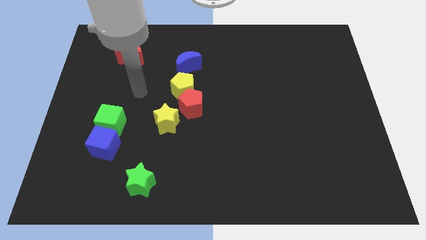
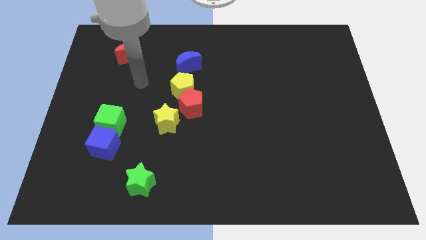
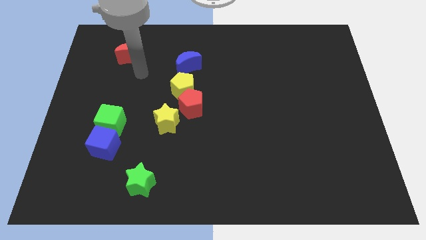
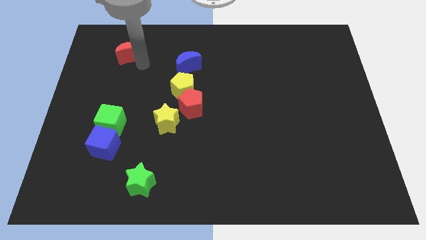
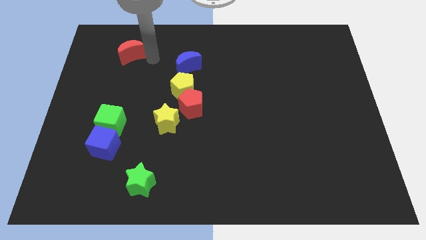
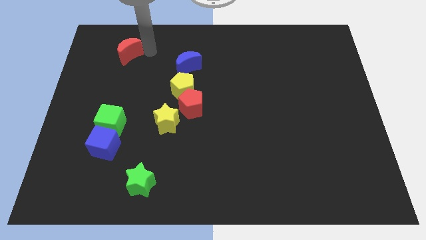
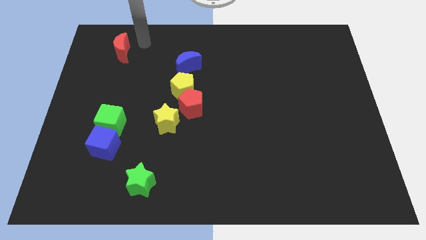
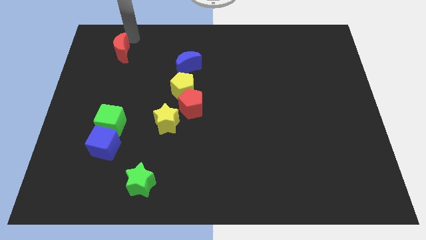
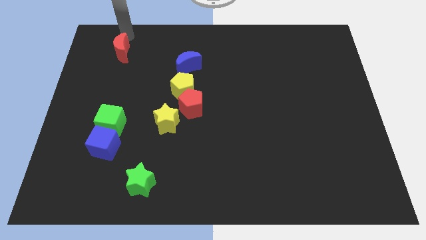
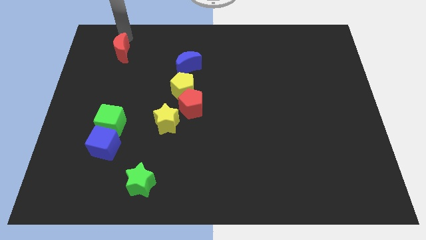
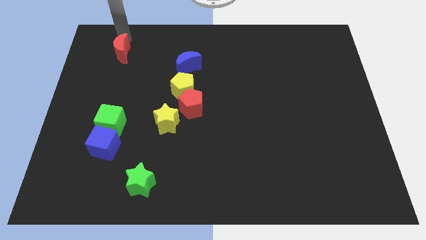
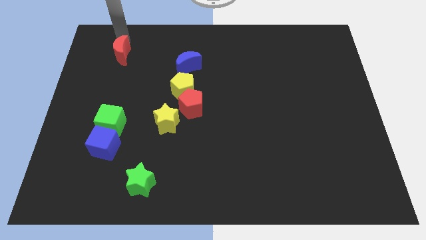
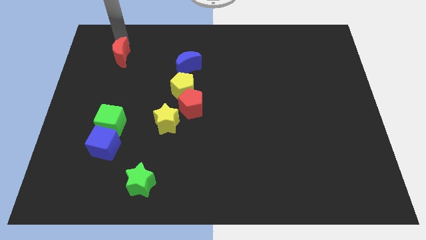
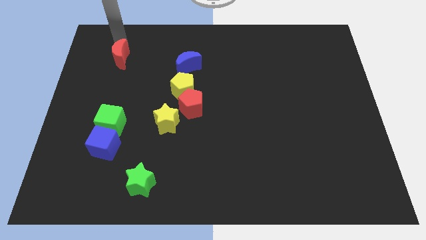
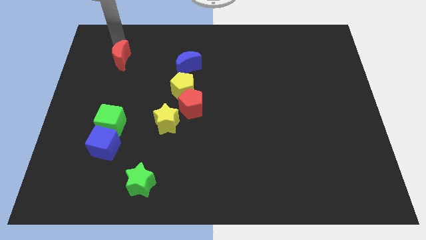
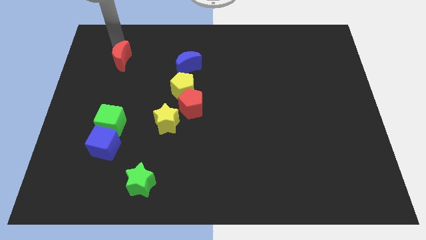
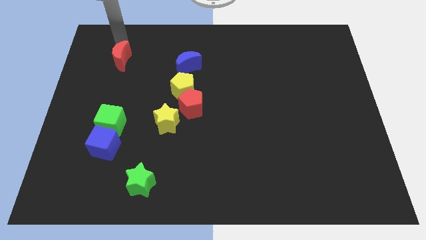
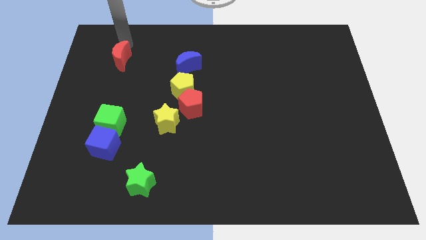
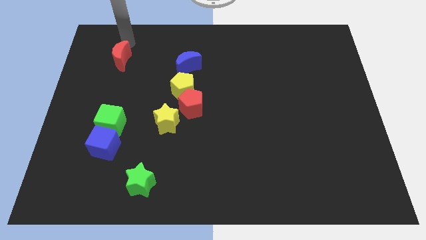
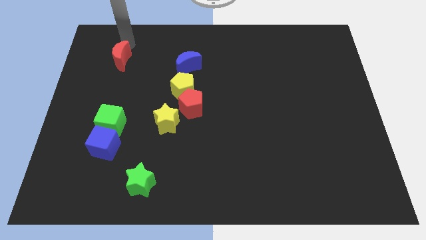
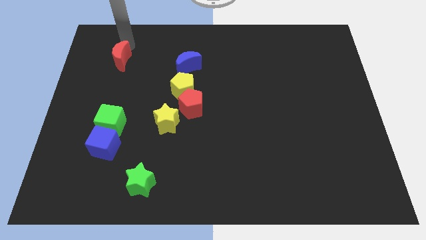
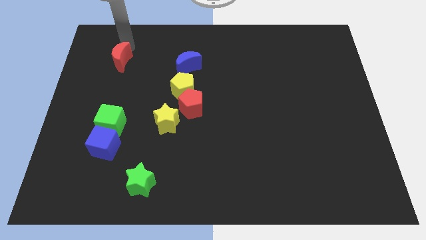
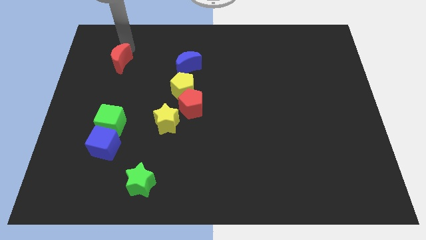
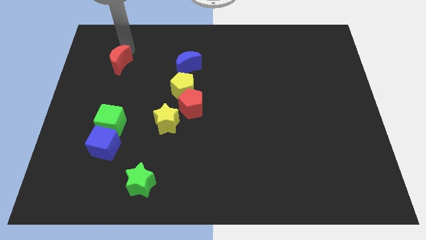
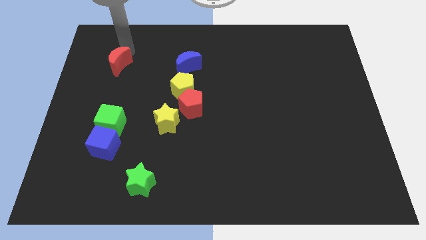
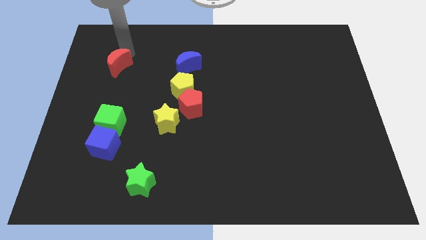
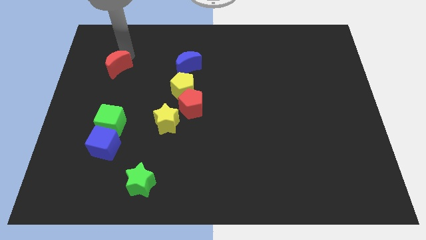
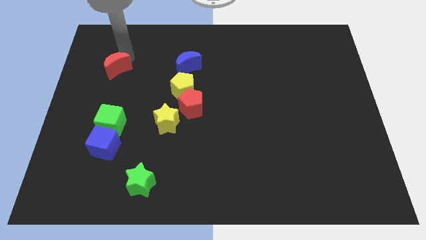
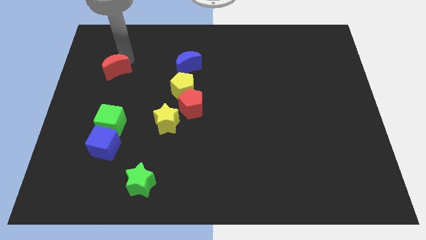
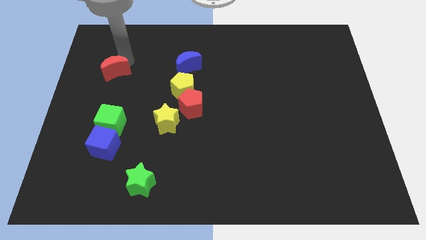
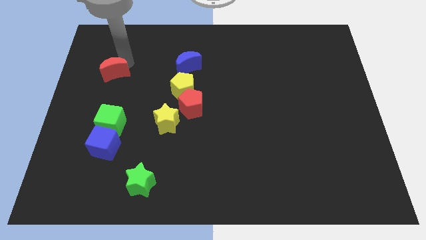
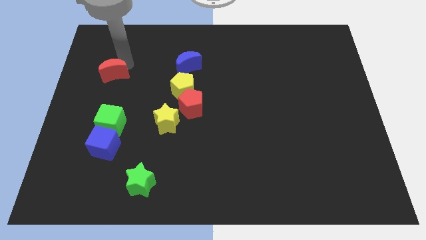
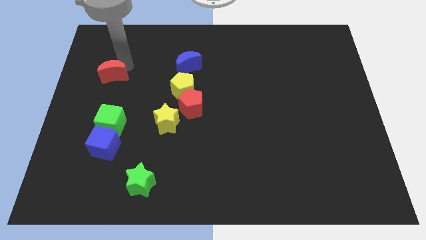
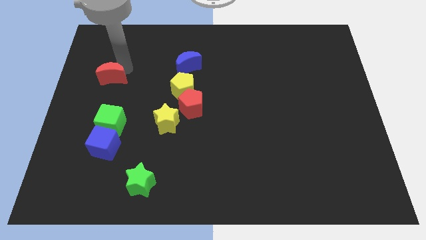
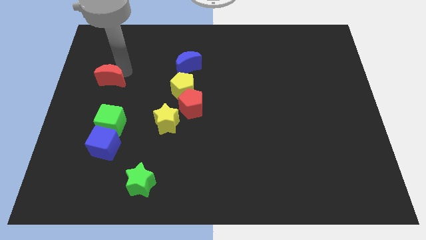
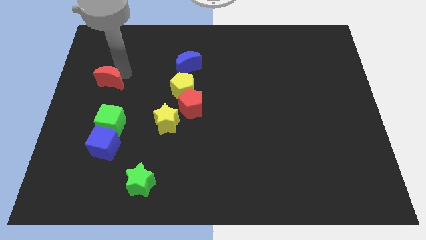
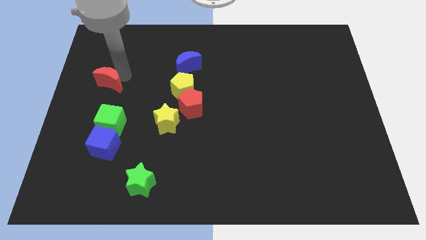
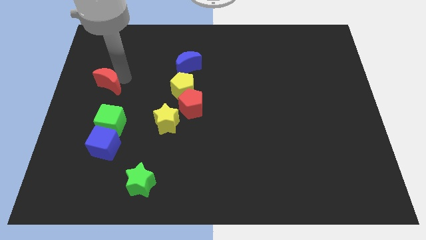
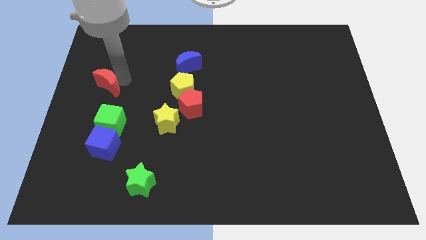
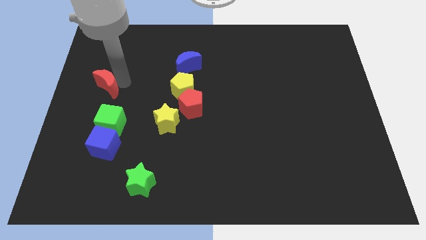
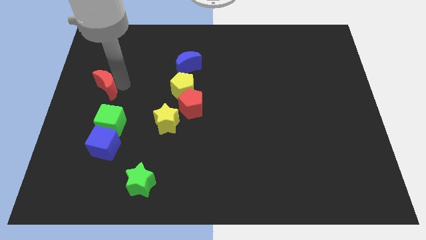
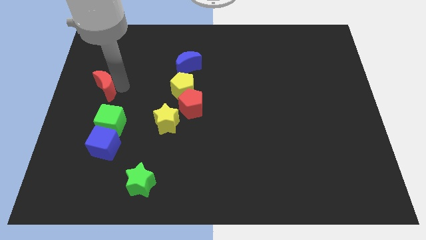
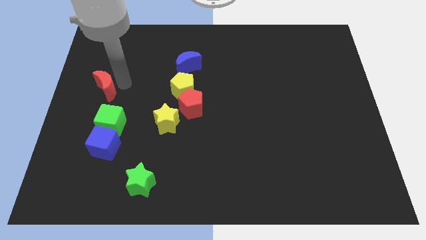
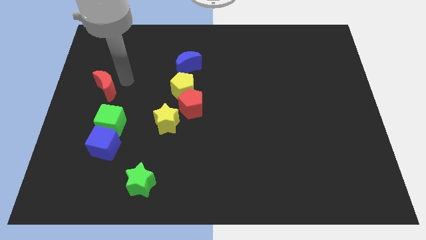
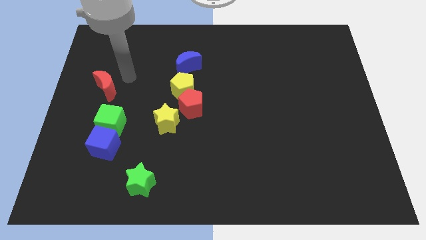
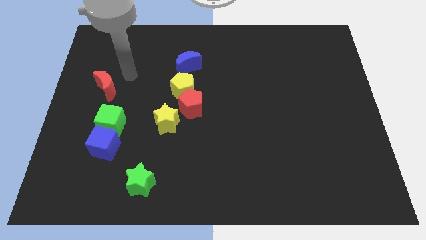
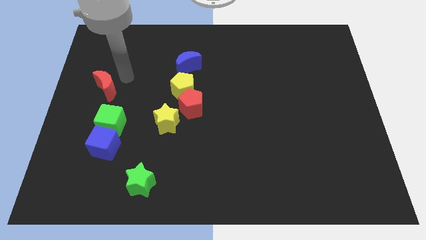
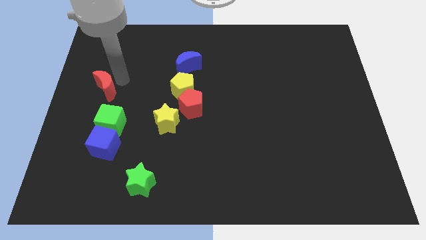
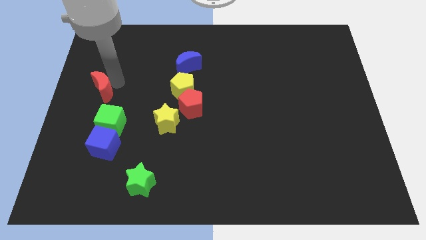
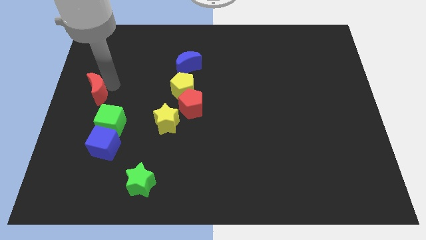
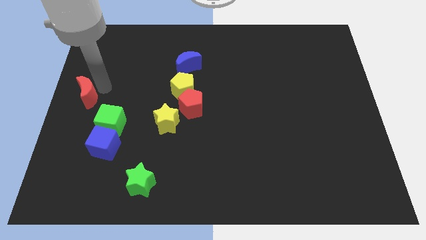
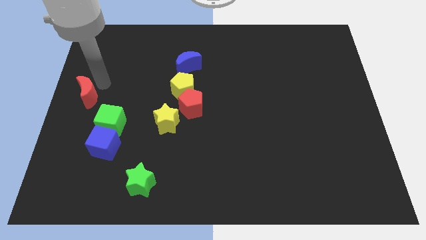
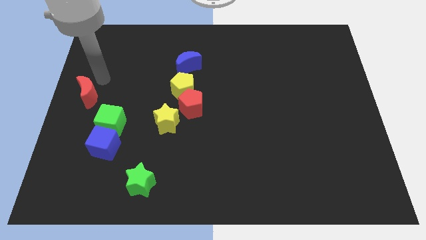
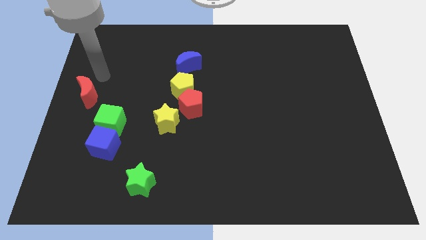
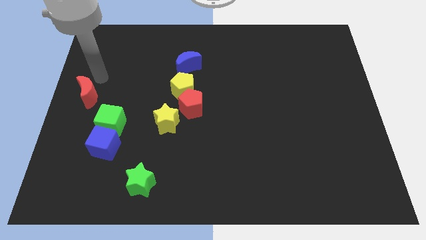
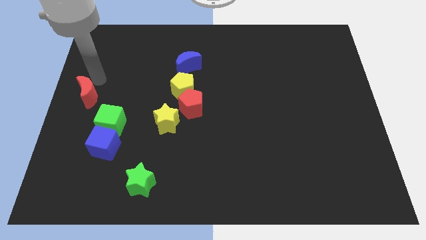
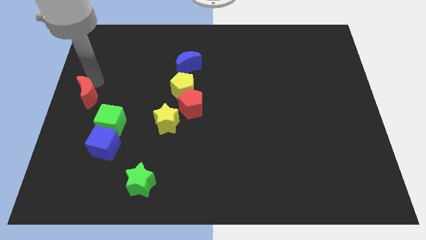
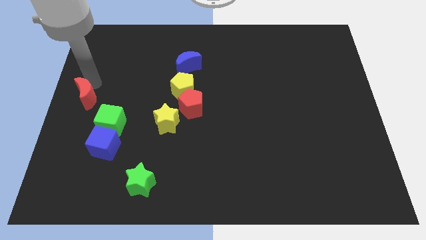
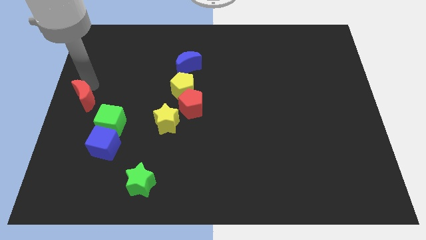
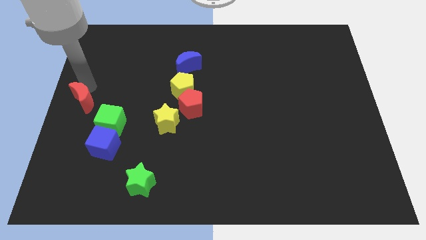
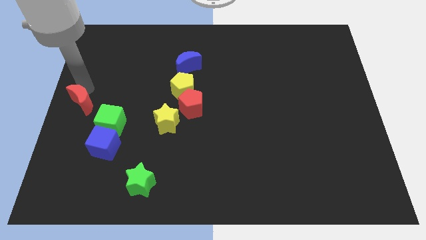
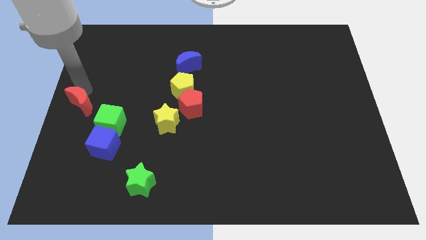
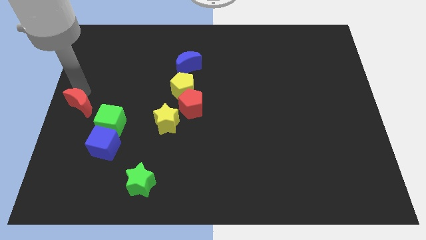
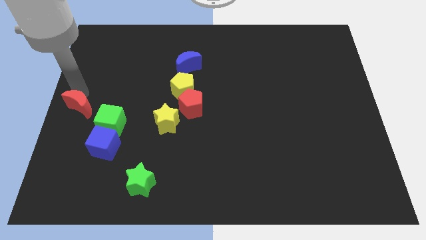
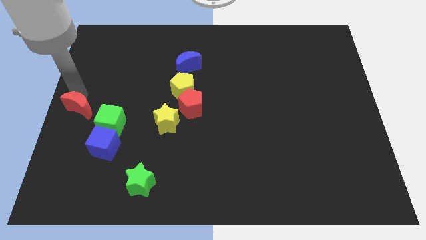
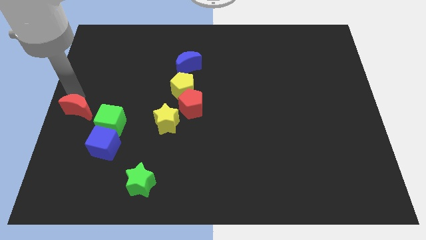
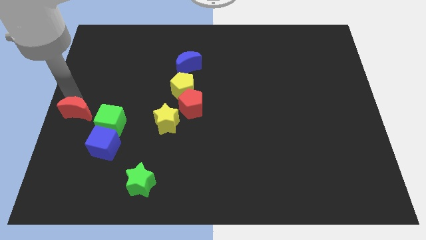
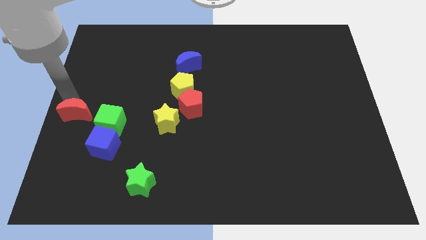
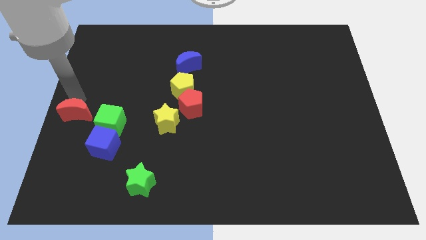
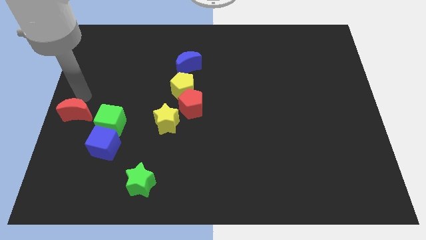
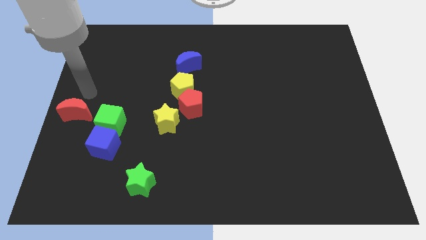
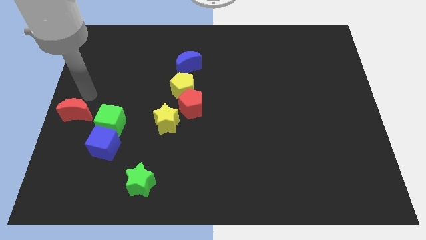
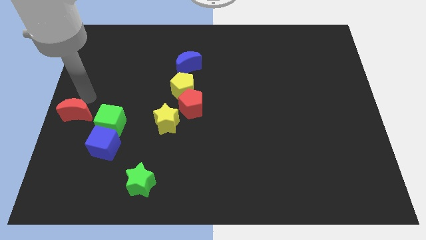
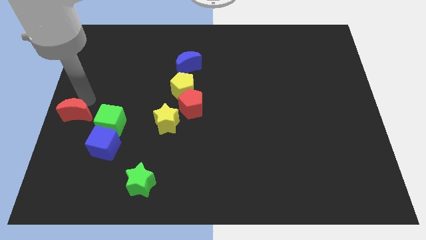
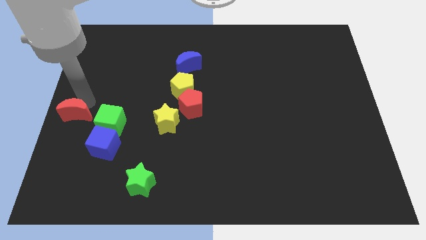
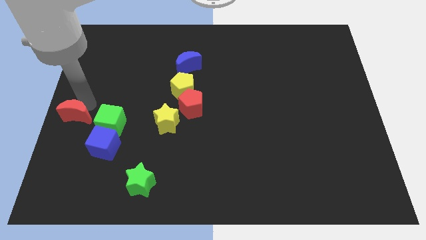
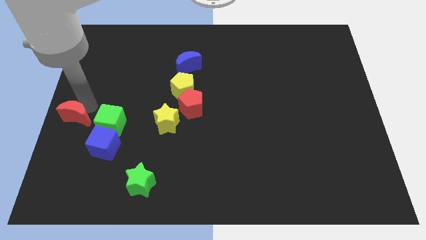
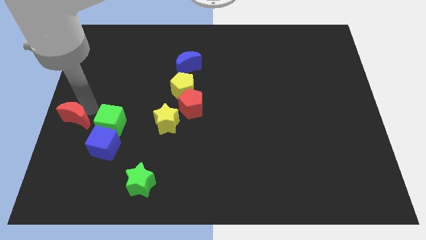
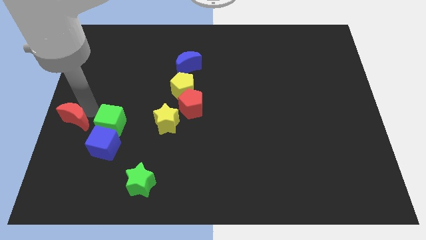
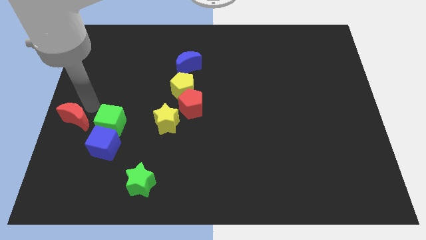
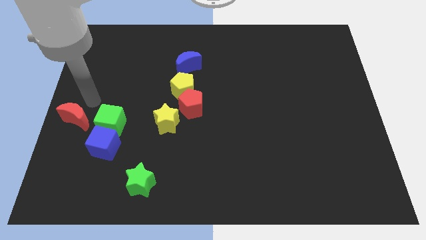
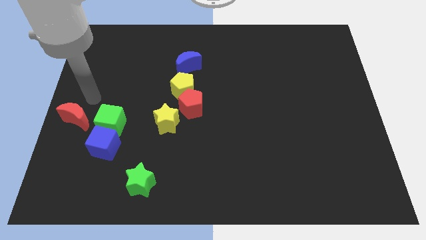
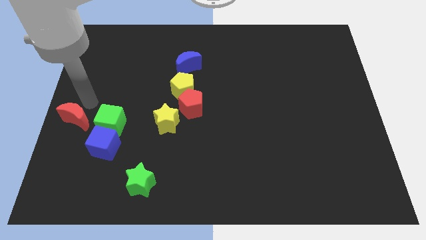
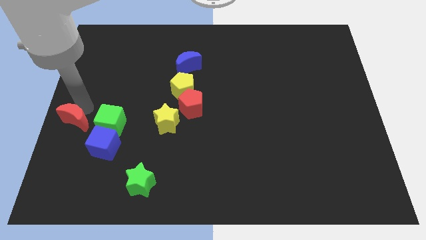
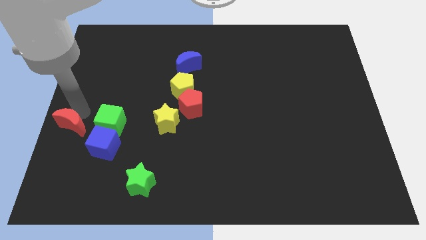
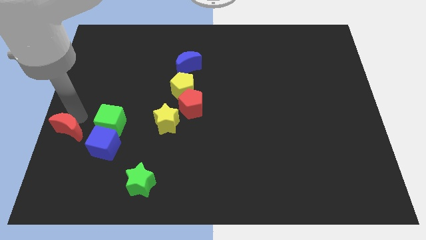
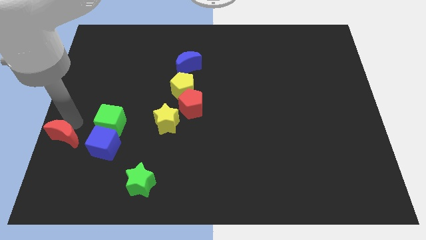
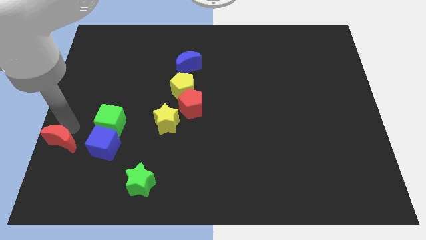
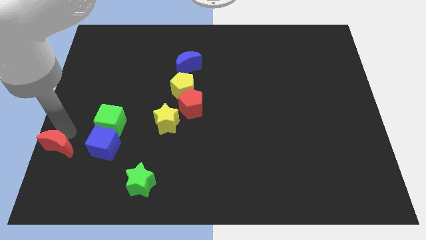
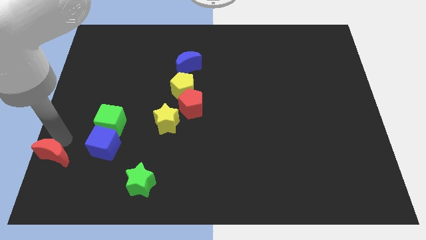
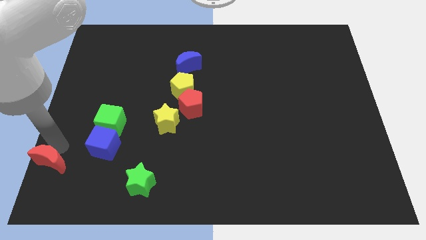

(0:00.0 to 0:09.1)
slide the red moon to the bottom left
